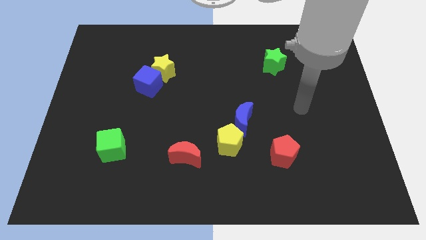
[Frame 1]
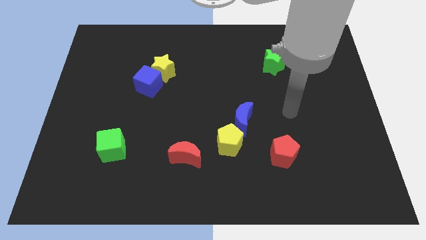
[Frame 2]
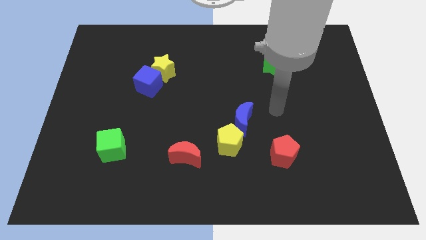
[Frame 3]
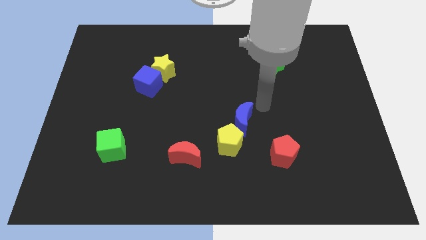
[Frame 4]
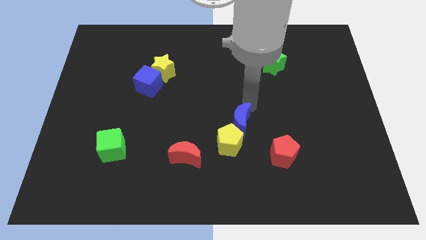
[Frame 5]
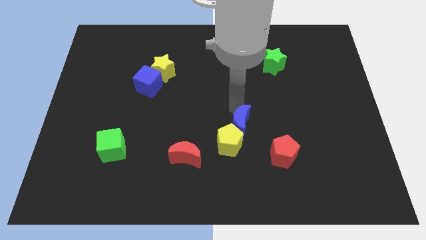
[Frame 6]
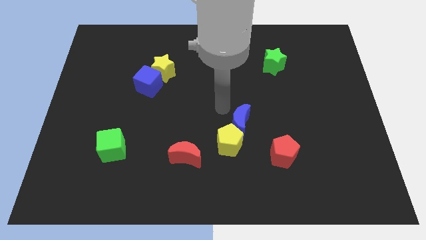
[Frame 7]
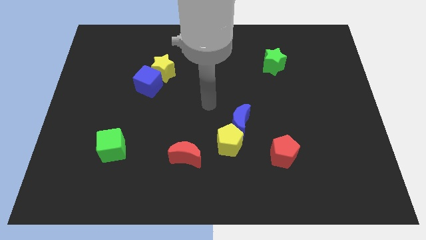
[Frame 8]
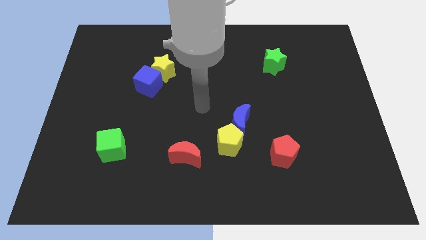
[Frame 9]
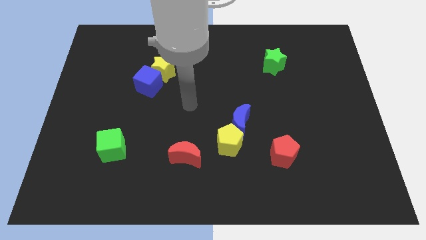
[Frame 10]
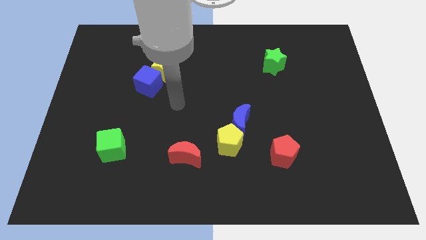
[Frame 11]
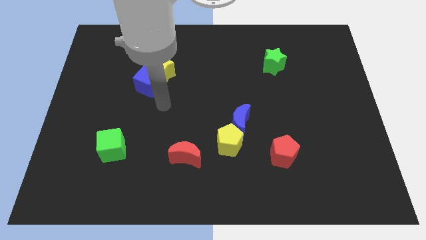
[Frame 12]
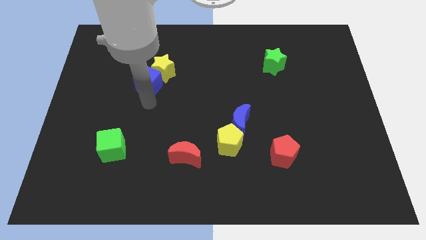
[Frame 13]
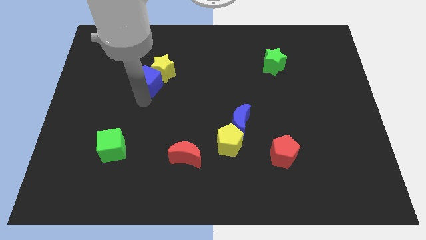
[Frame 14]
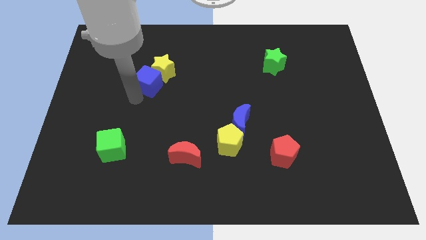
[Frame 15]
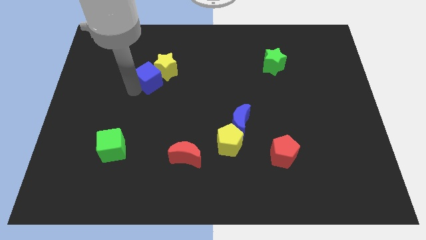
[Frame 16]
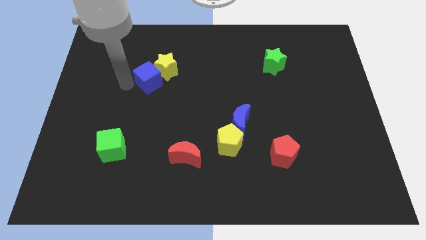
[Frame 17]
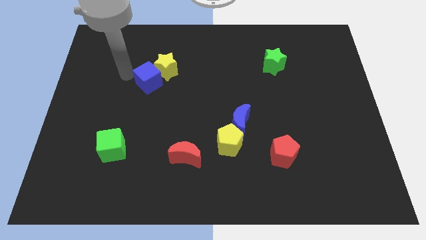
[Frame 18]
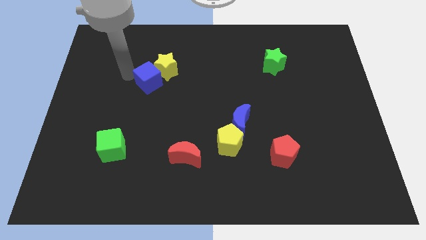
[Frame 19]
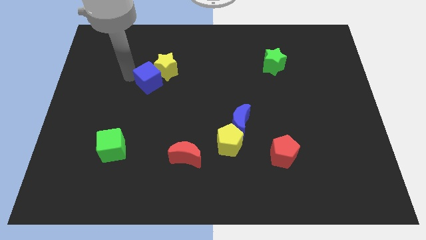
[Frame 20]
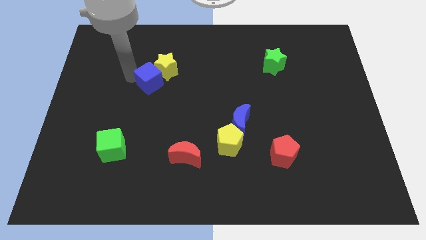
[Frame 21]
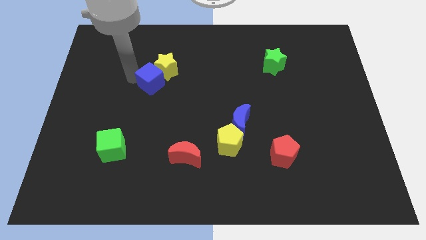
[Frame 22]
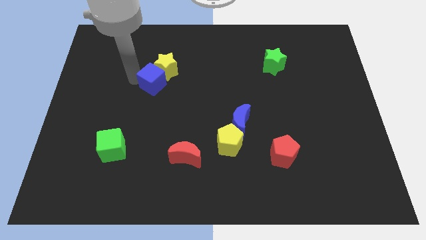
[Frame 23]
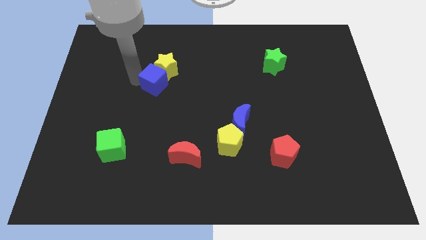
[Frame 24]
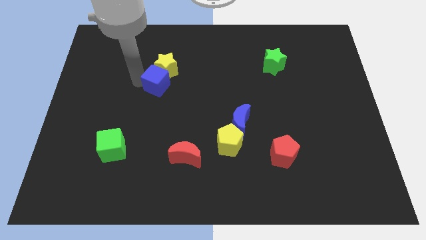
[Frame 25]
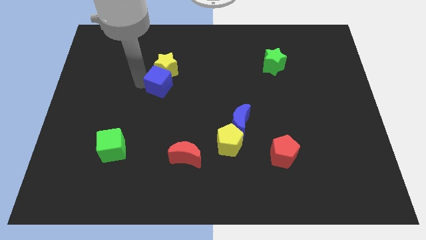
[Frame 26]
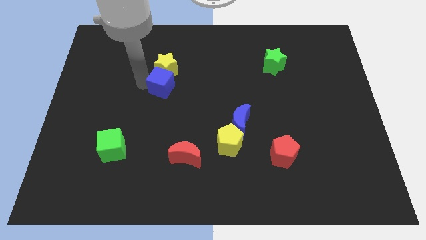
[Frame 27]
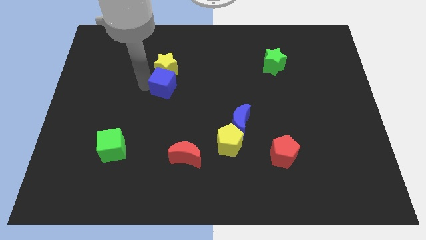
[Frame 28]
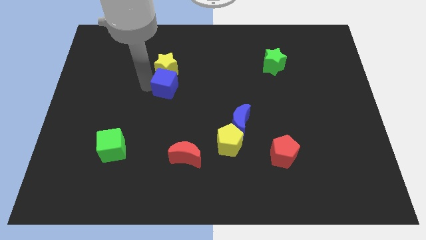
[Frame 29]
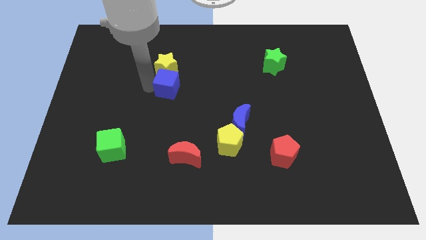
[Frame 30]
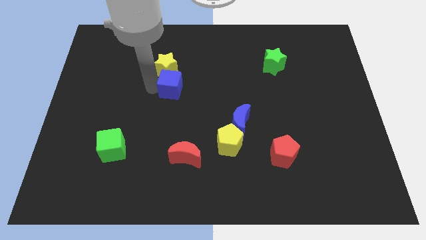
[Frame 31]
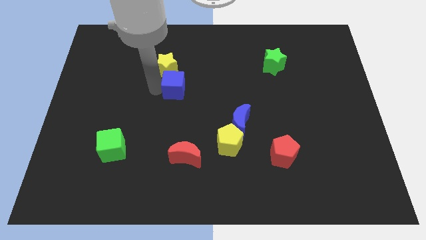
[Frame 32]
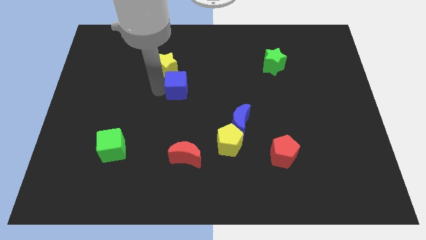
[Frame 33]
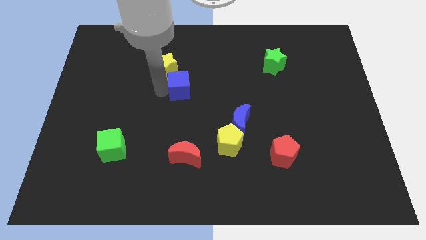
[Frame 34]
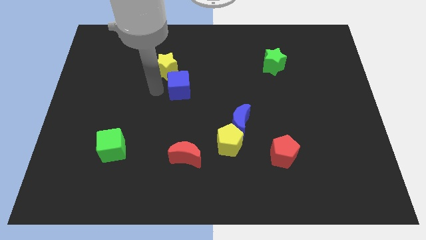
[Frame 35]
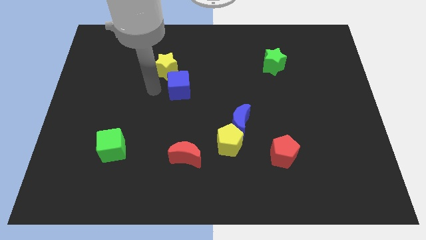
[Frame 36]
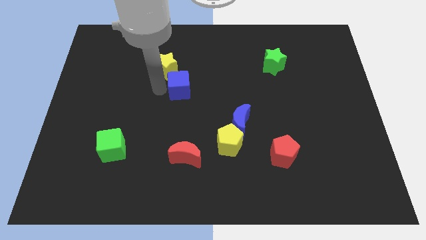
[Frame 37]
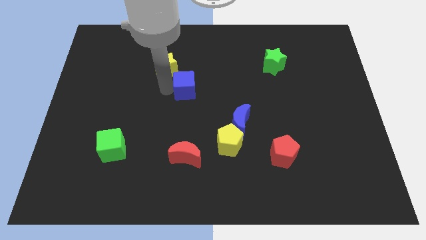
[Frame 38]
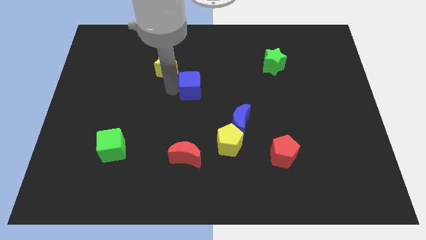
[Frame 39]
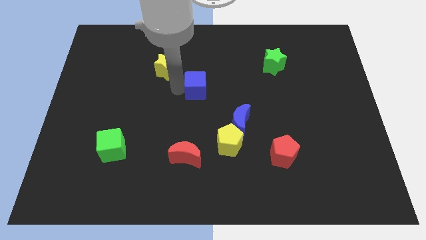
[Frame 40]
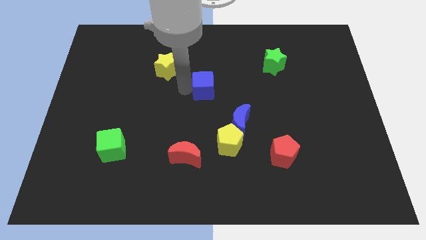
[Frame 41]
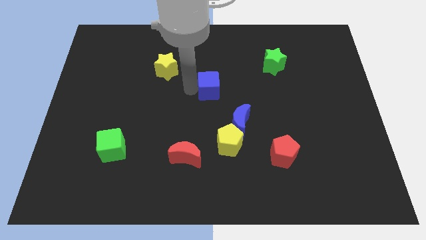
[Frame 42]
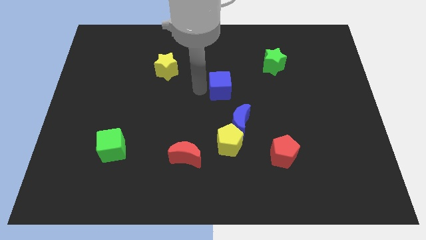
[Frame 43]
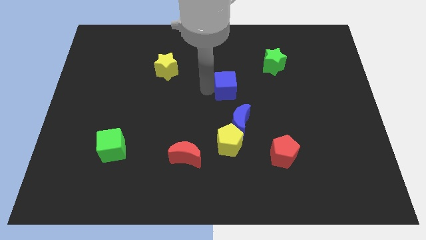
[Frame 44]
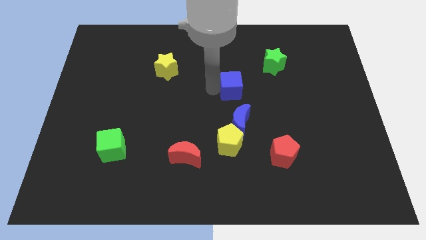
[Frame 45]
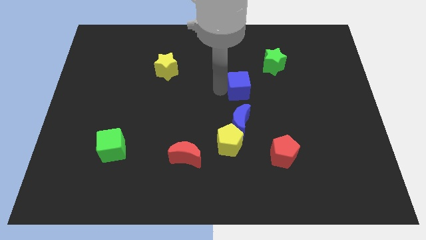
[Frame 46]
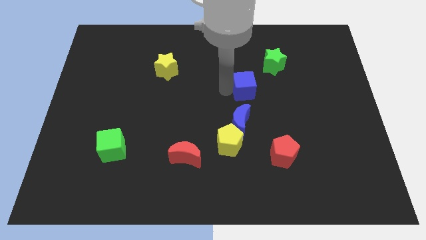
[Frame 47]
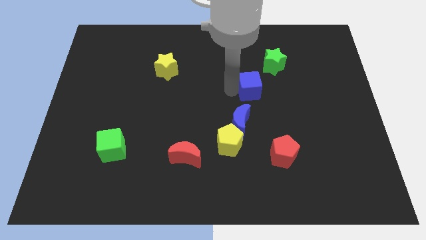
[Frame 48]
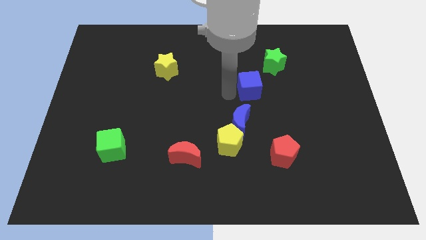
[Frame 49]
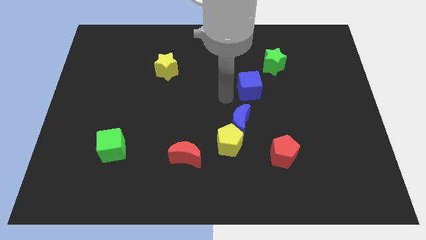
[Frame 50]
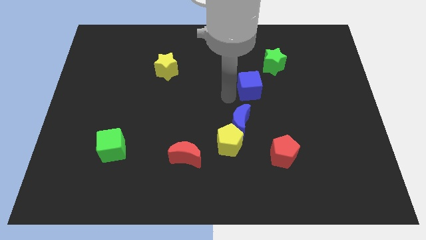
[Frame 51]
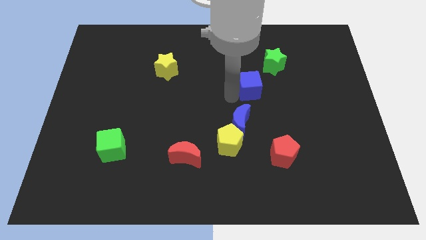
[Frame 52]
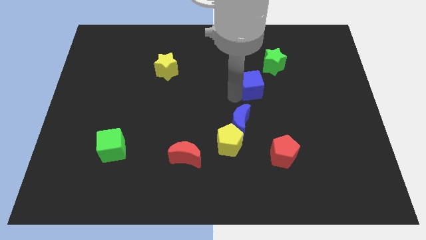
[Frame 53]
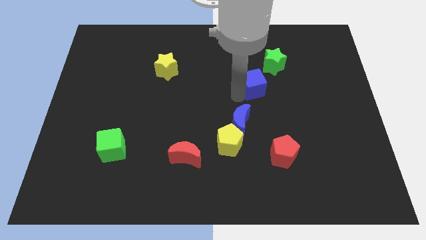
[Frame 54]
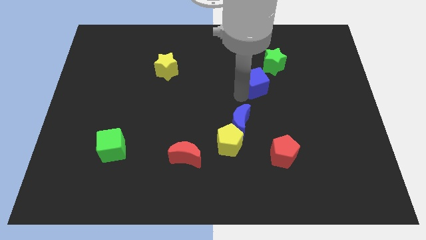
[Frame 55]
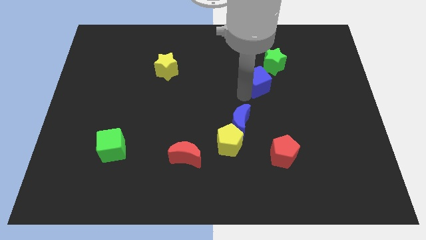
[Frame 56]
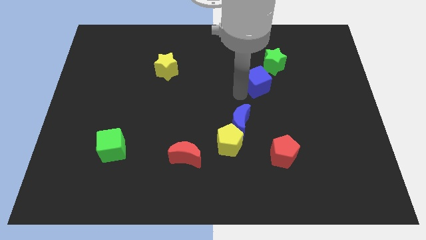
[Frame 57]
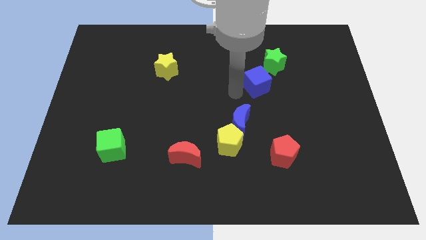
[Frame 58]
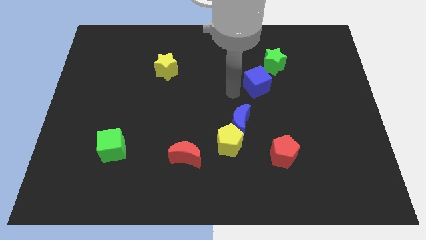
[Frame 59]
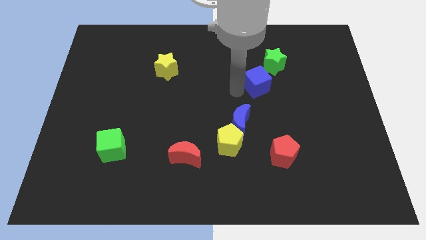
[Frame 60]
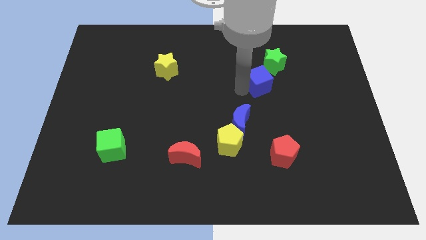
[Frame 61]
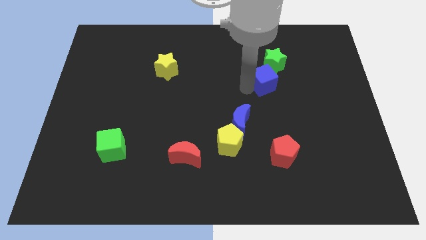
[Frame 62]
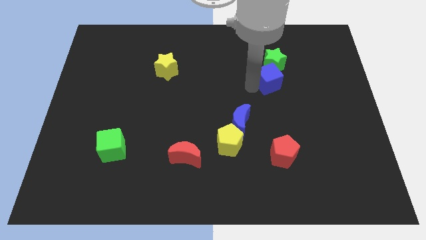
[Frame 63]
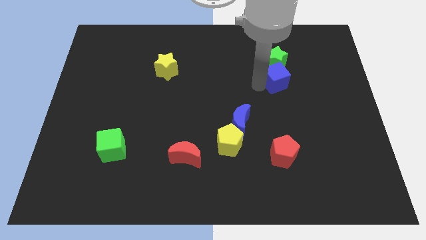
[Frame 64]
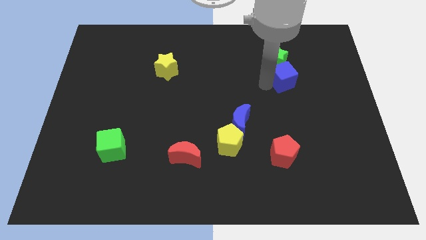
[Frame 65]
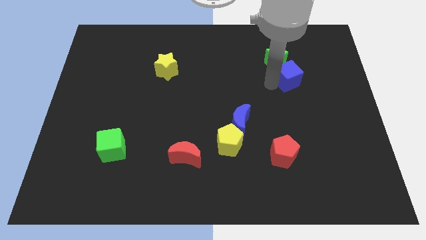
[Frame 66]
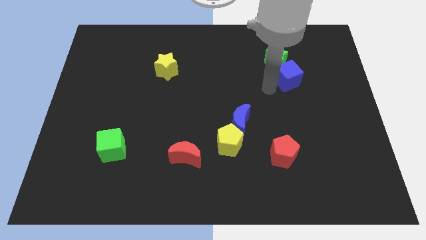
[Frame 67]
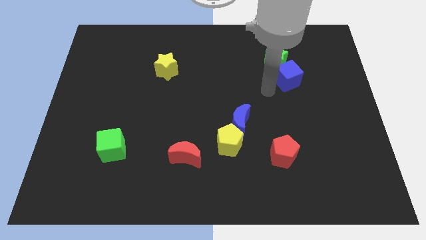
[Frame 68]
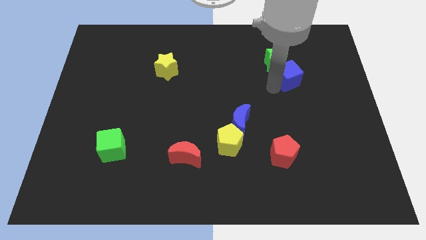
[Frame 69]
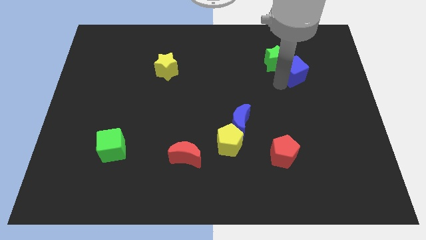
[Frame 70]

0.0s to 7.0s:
push the blue cube to the right of the green star
